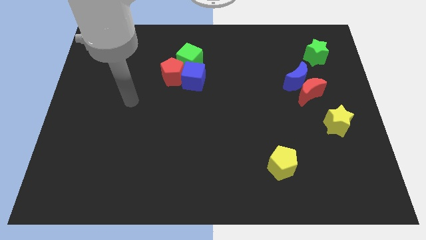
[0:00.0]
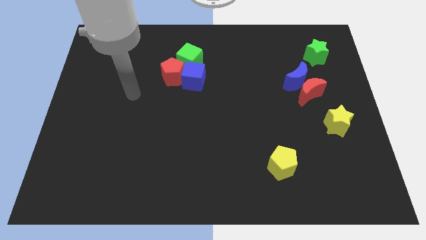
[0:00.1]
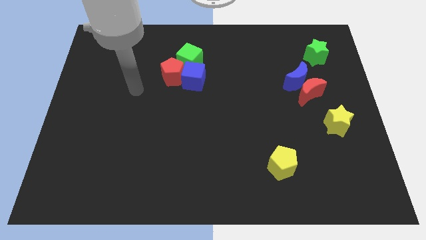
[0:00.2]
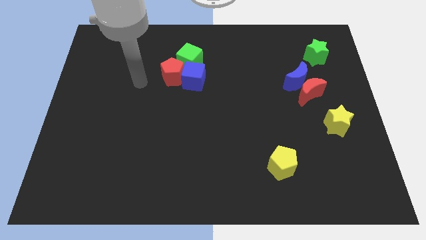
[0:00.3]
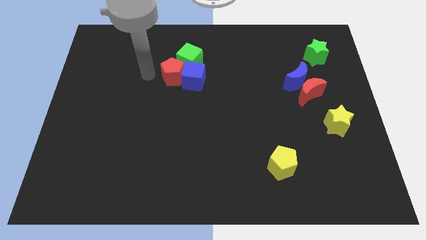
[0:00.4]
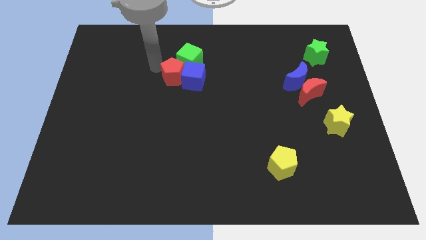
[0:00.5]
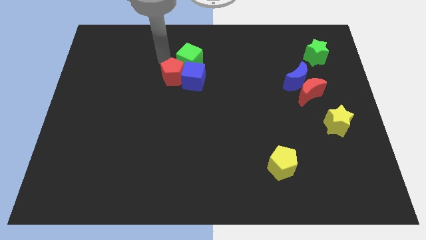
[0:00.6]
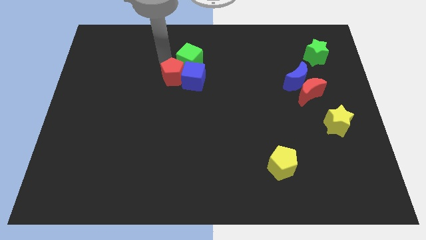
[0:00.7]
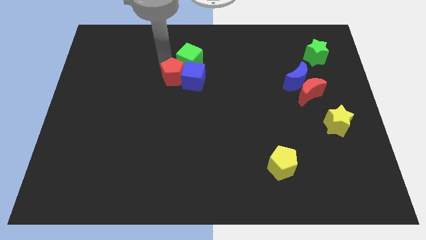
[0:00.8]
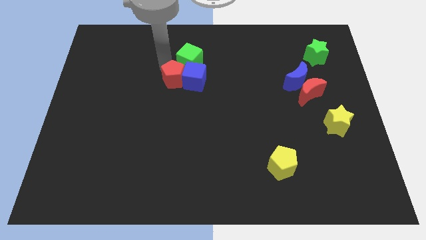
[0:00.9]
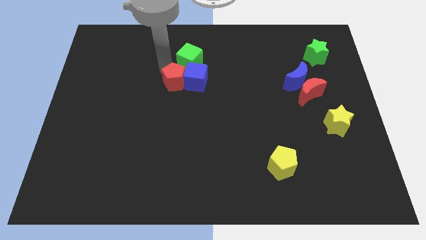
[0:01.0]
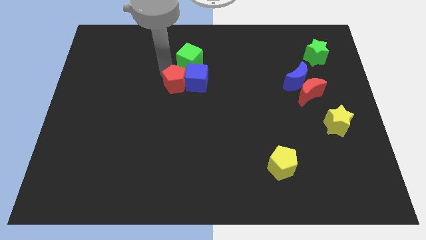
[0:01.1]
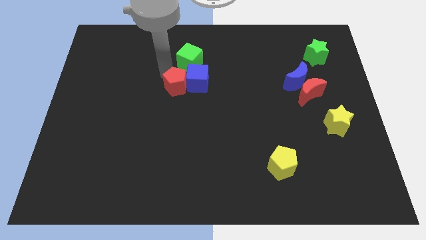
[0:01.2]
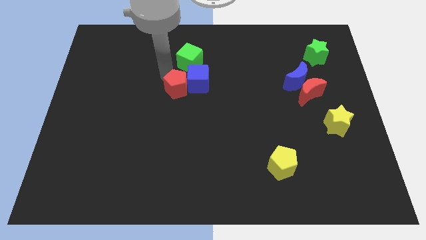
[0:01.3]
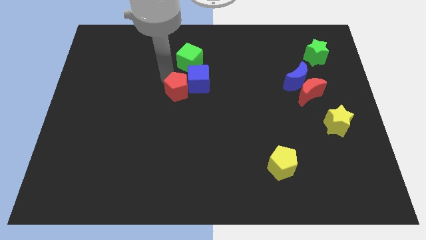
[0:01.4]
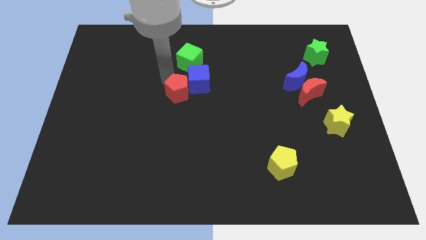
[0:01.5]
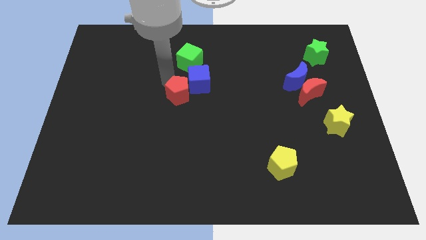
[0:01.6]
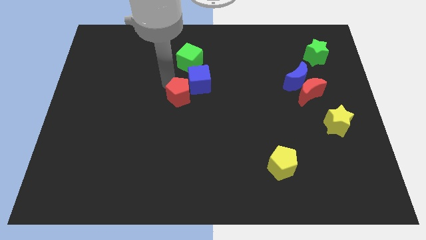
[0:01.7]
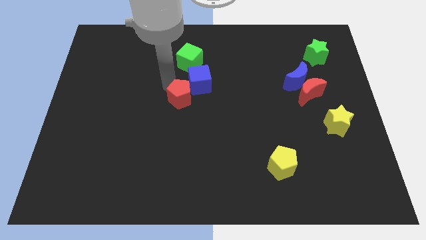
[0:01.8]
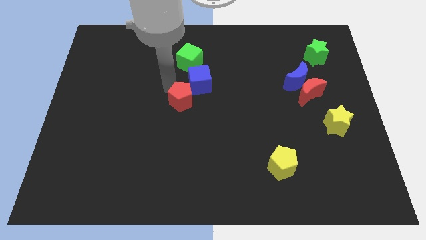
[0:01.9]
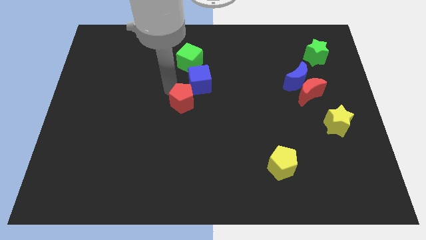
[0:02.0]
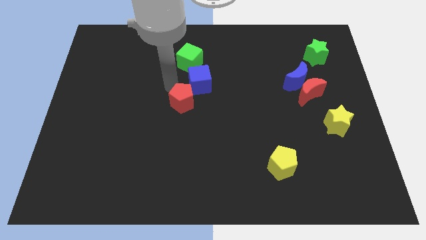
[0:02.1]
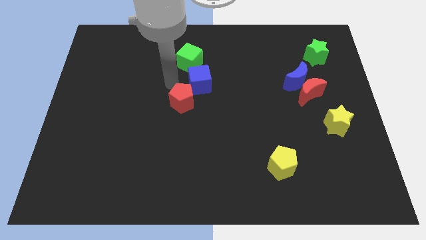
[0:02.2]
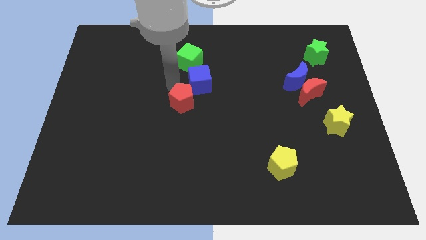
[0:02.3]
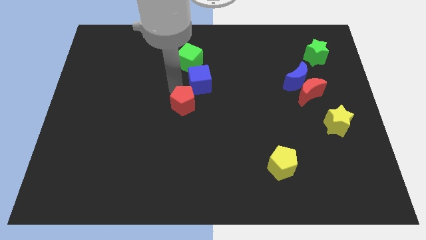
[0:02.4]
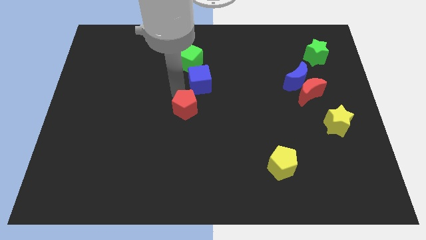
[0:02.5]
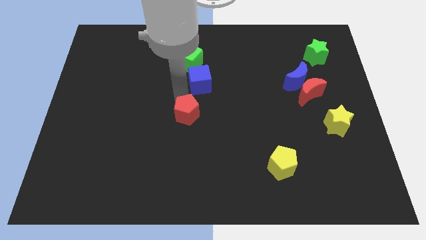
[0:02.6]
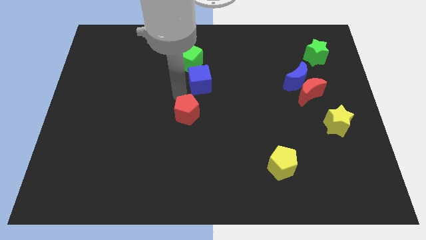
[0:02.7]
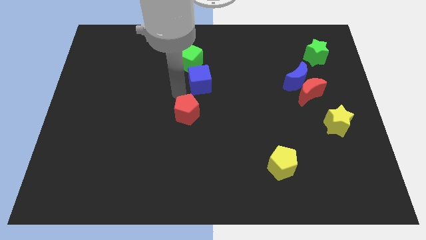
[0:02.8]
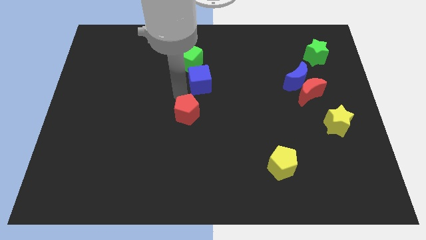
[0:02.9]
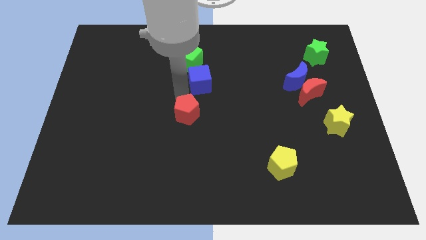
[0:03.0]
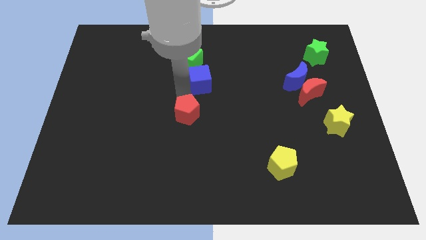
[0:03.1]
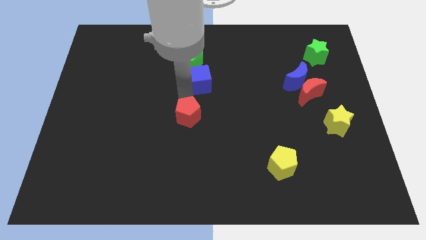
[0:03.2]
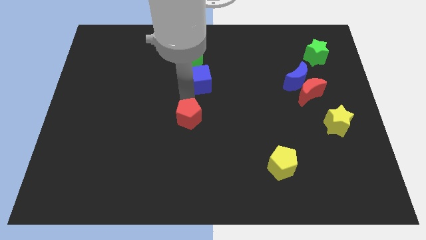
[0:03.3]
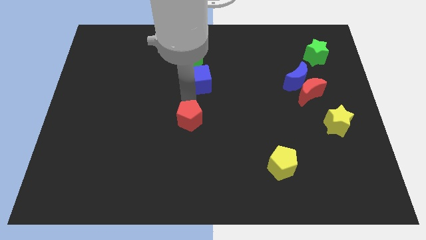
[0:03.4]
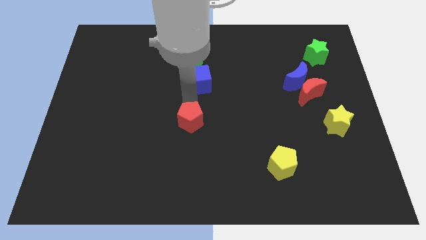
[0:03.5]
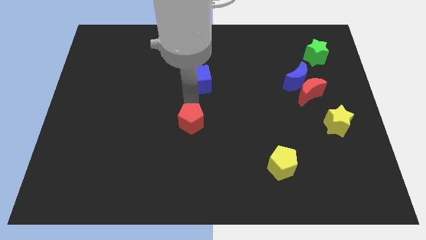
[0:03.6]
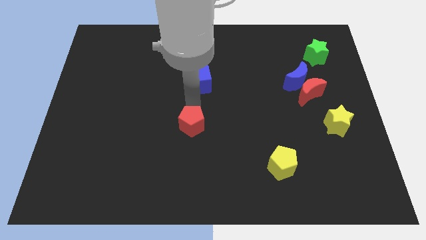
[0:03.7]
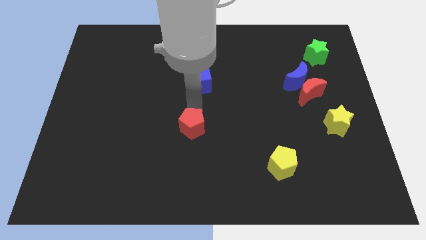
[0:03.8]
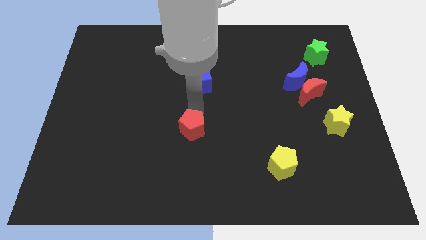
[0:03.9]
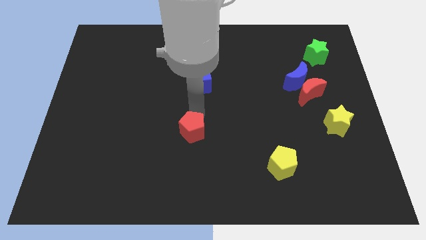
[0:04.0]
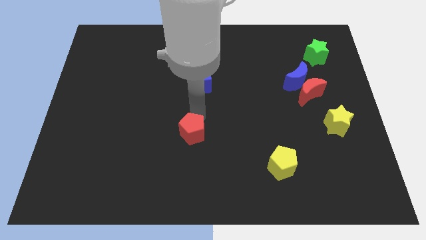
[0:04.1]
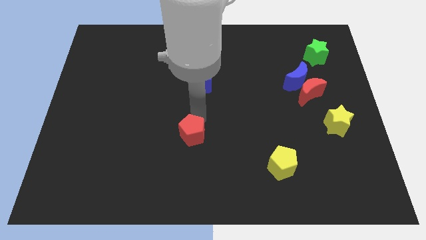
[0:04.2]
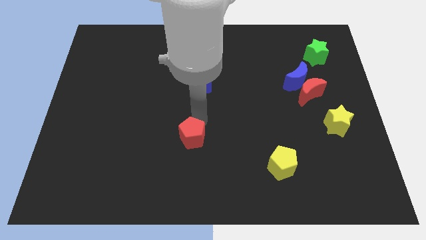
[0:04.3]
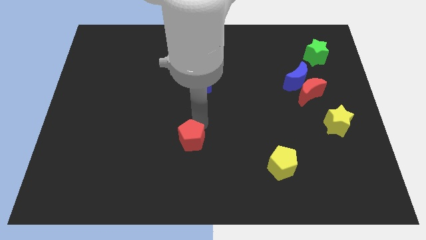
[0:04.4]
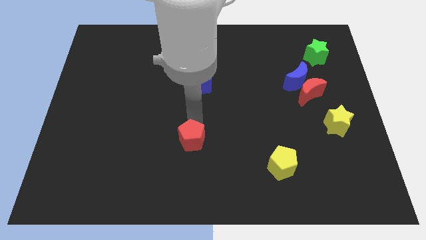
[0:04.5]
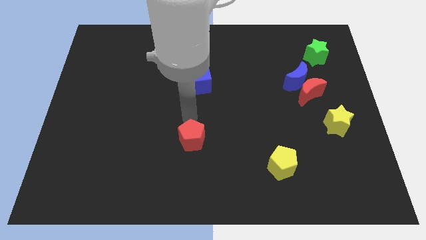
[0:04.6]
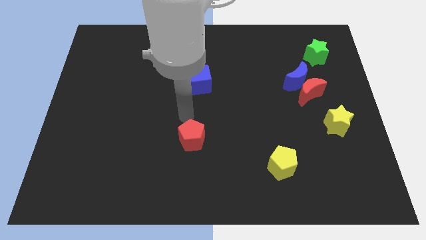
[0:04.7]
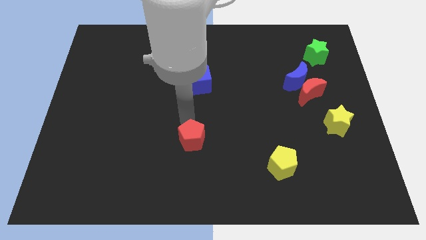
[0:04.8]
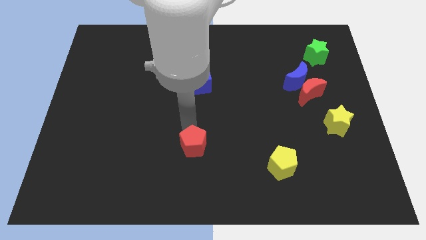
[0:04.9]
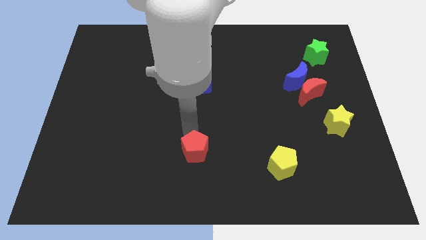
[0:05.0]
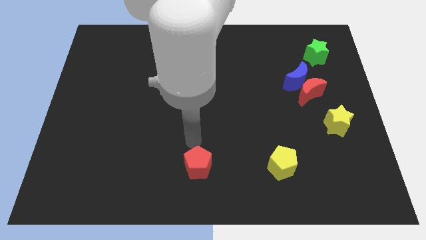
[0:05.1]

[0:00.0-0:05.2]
move the red pentagon to the bottom
